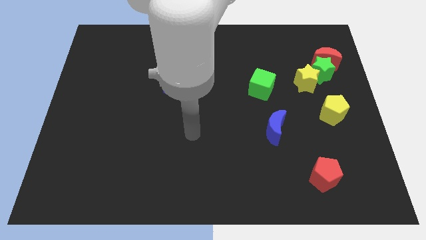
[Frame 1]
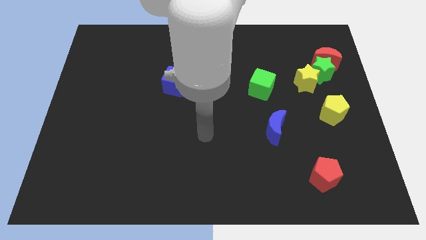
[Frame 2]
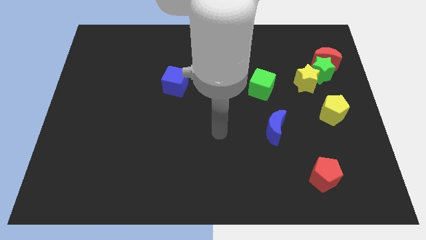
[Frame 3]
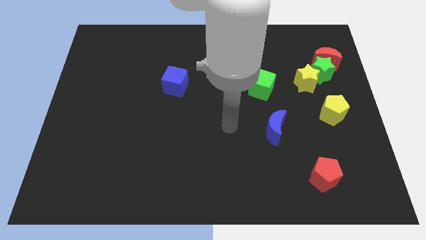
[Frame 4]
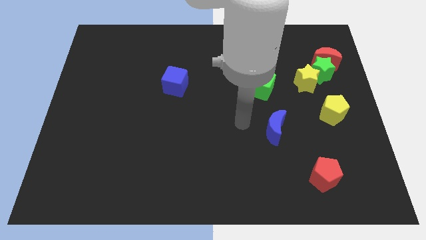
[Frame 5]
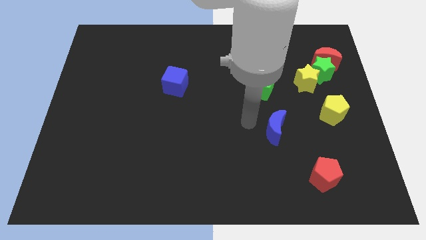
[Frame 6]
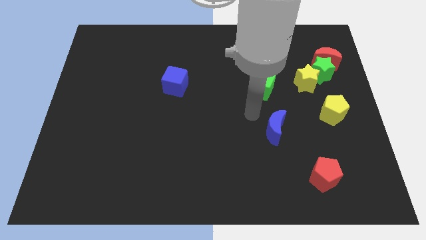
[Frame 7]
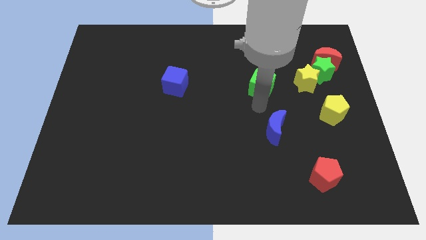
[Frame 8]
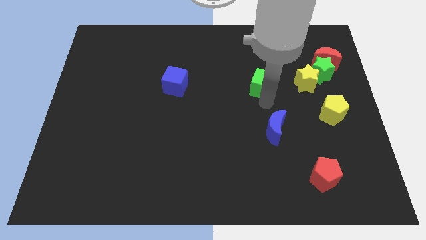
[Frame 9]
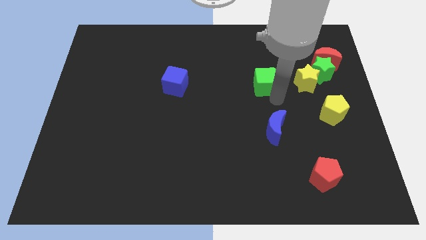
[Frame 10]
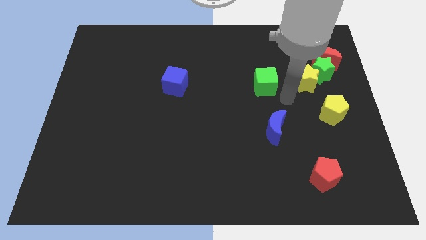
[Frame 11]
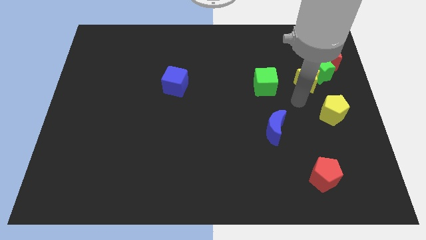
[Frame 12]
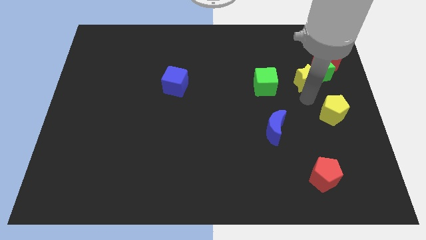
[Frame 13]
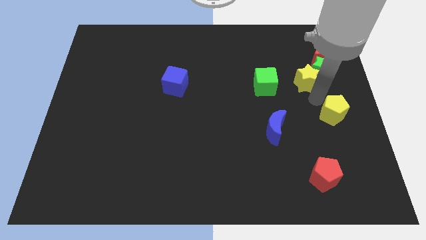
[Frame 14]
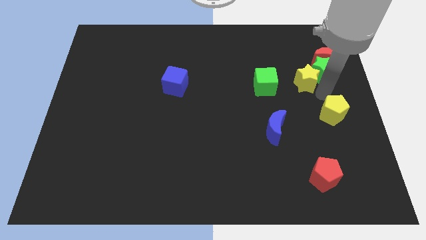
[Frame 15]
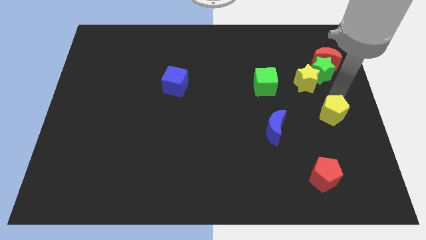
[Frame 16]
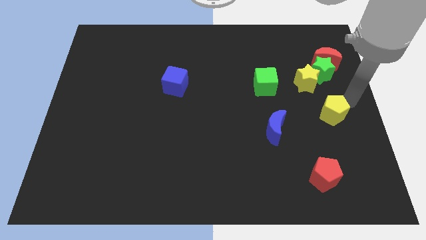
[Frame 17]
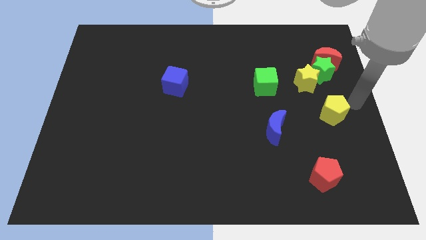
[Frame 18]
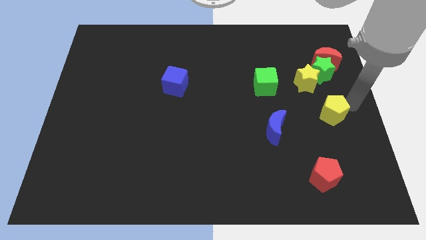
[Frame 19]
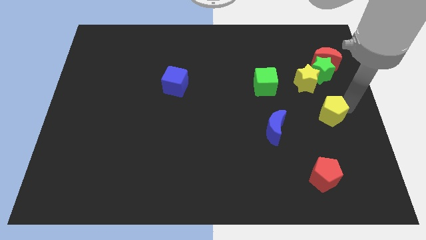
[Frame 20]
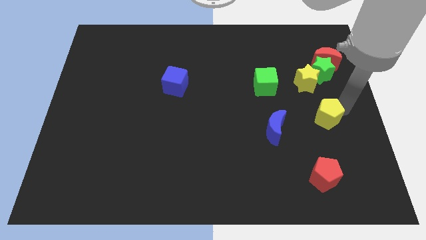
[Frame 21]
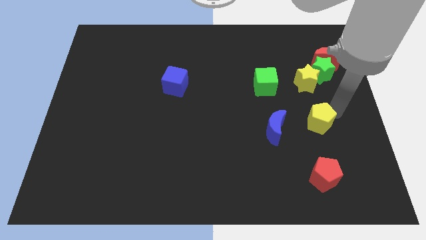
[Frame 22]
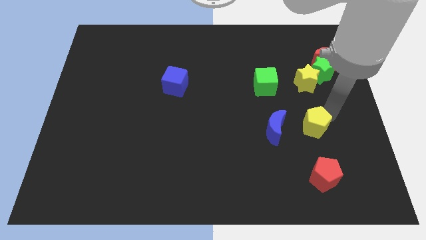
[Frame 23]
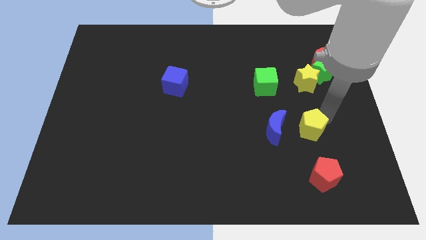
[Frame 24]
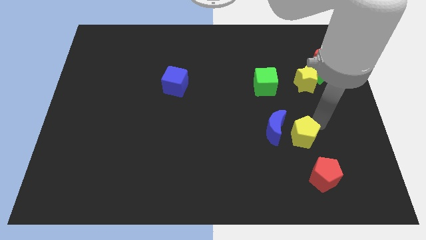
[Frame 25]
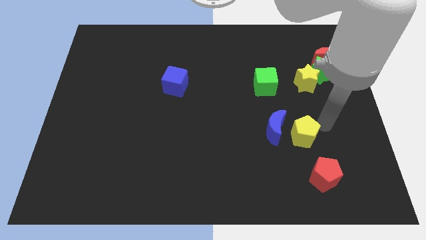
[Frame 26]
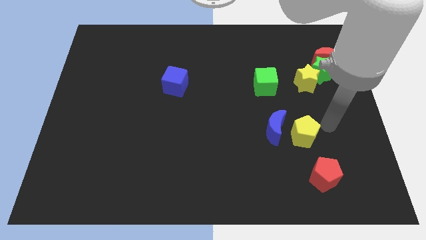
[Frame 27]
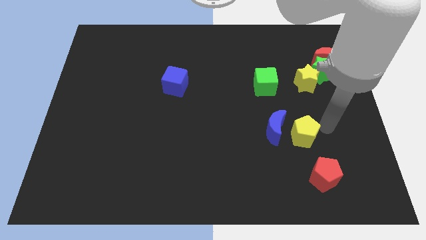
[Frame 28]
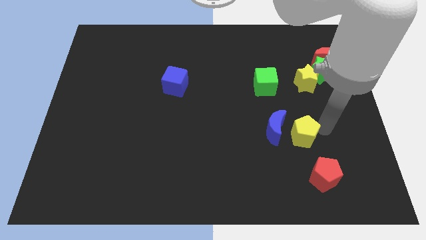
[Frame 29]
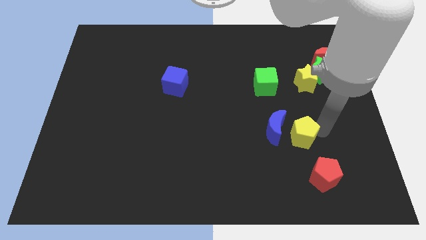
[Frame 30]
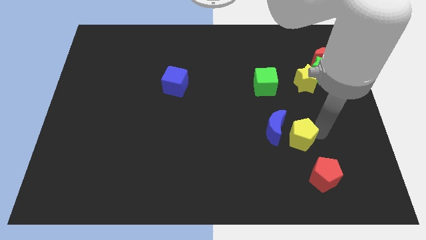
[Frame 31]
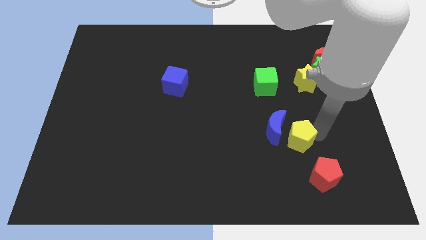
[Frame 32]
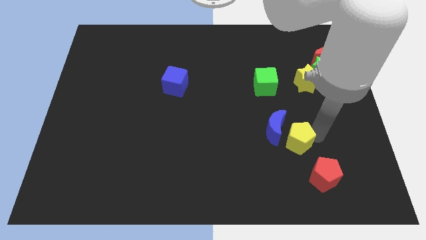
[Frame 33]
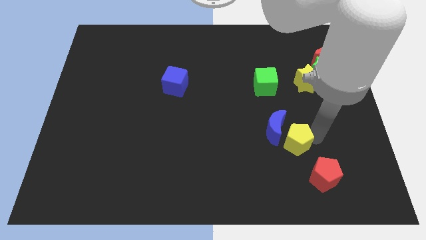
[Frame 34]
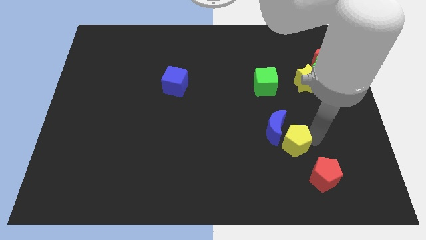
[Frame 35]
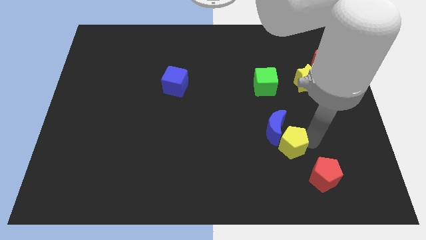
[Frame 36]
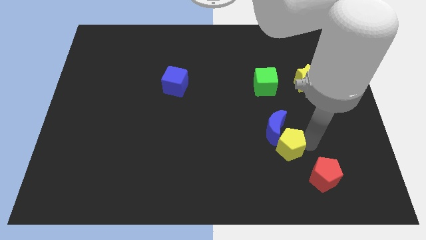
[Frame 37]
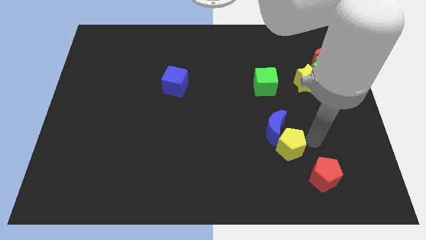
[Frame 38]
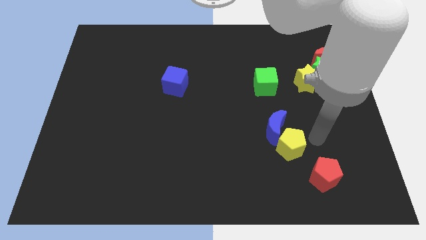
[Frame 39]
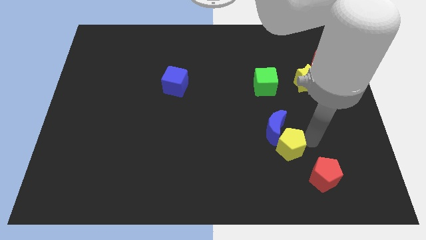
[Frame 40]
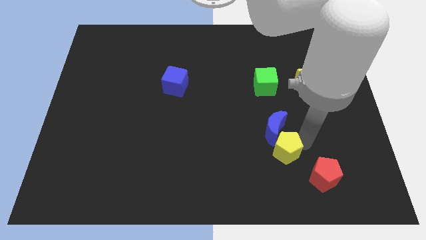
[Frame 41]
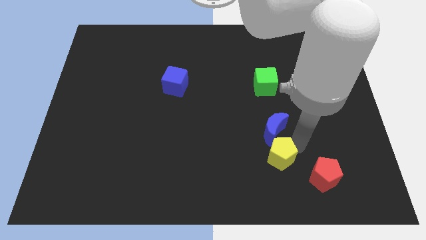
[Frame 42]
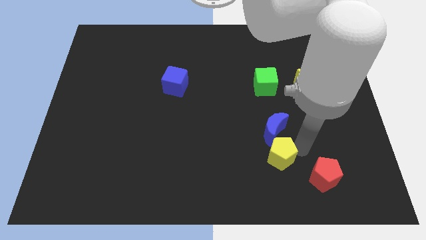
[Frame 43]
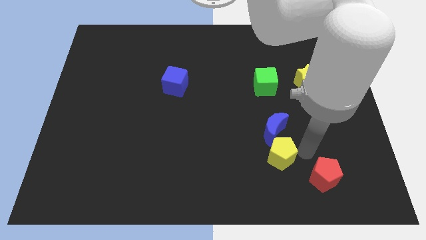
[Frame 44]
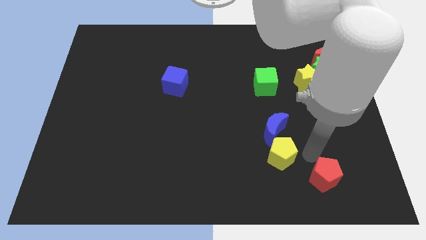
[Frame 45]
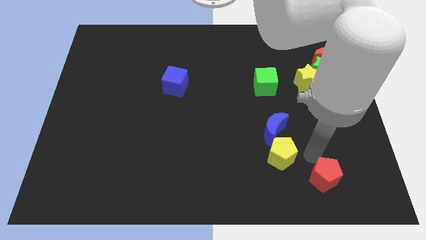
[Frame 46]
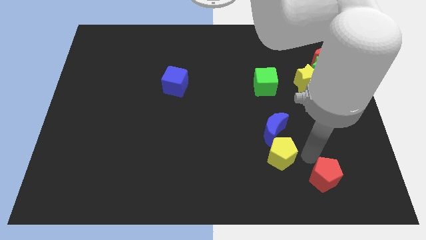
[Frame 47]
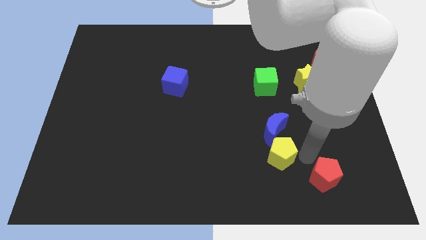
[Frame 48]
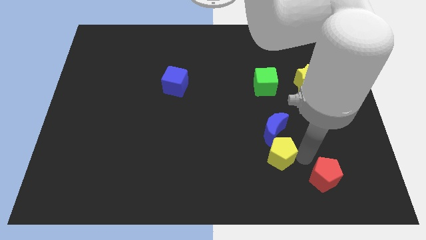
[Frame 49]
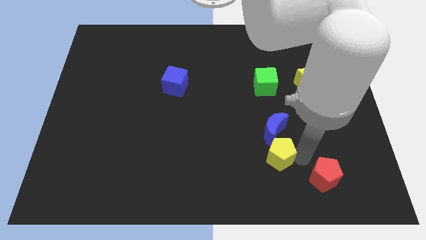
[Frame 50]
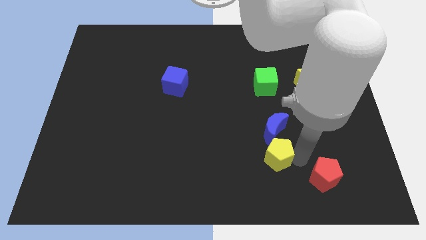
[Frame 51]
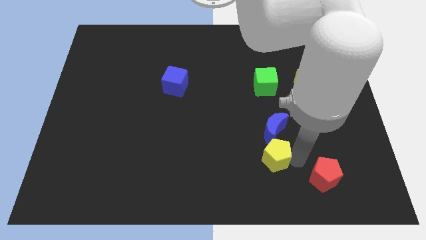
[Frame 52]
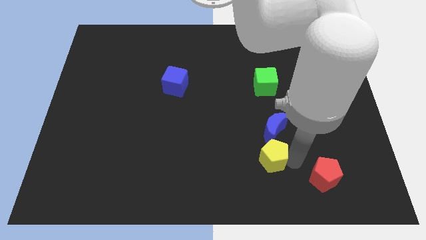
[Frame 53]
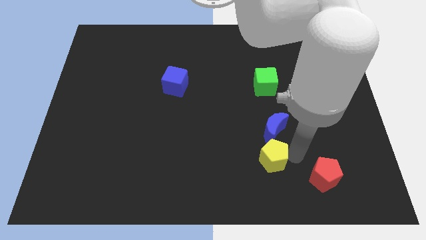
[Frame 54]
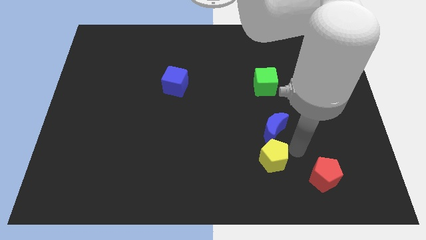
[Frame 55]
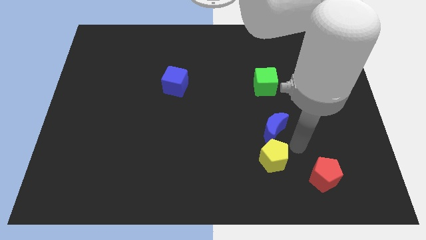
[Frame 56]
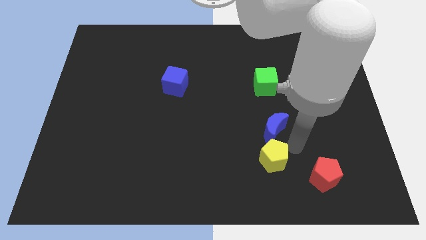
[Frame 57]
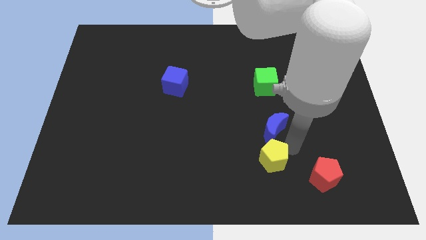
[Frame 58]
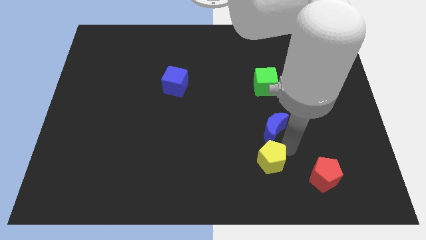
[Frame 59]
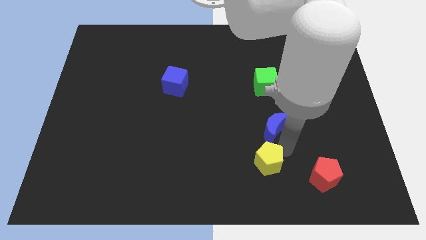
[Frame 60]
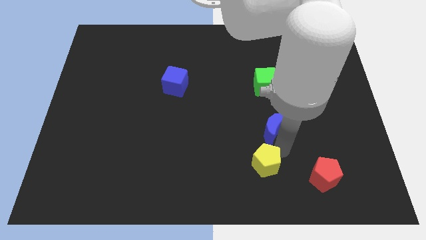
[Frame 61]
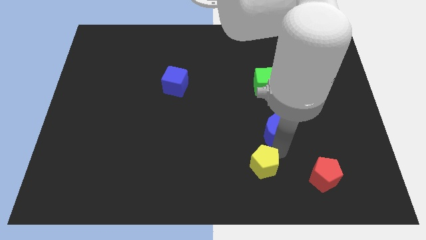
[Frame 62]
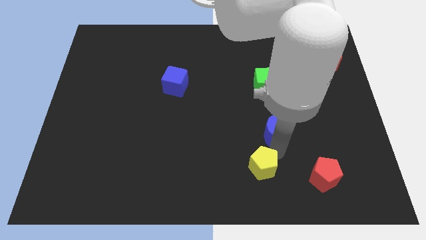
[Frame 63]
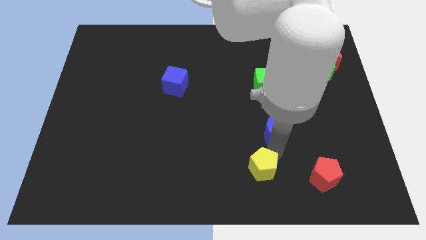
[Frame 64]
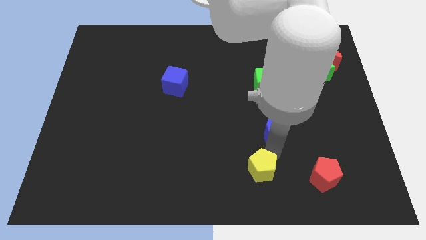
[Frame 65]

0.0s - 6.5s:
put the yellow pentagon to the bottom

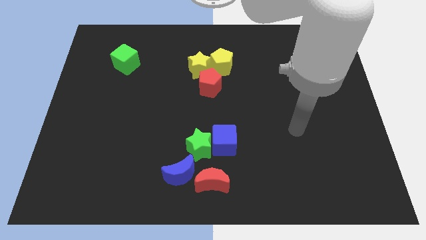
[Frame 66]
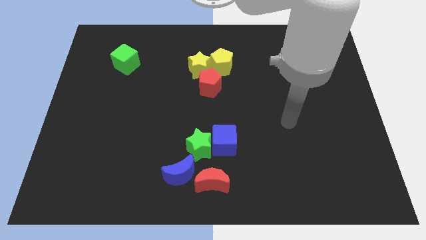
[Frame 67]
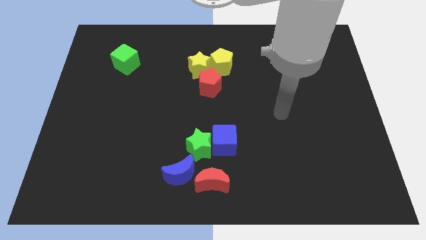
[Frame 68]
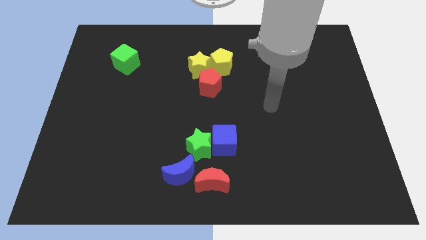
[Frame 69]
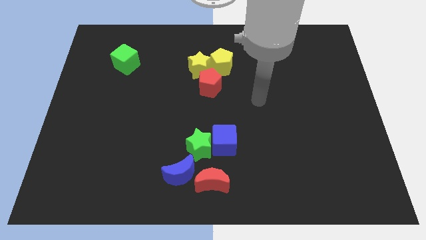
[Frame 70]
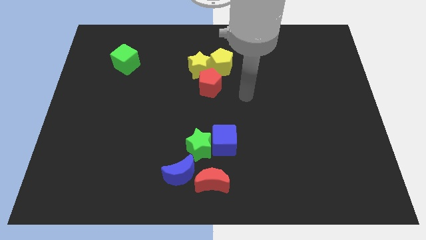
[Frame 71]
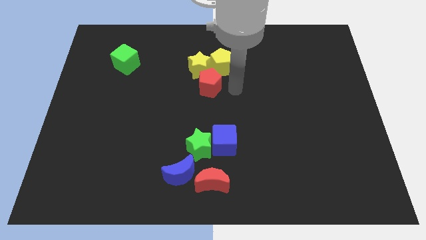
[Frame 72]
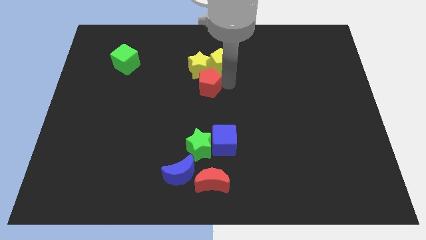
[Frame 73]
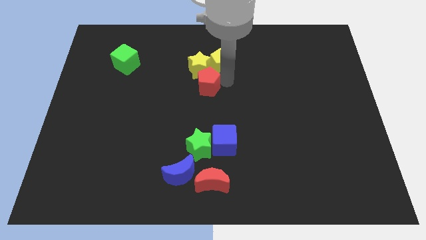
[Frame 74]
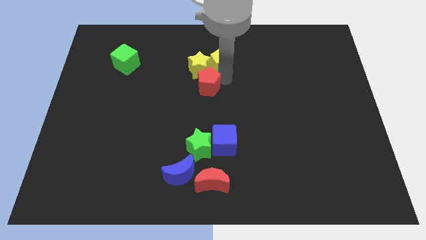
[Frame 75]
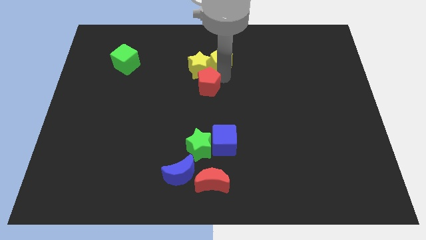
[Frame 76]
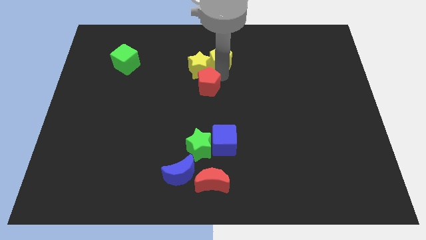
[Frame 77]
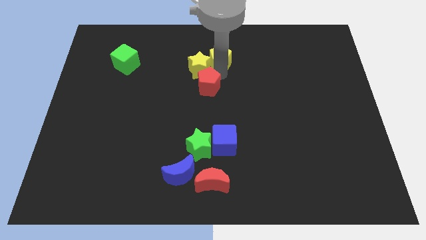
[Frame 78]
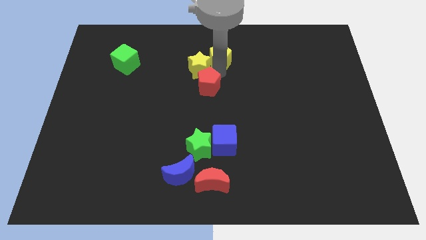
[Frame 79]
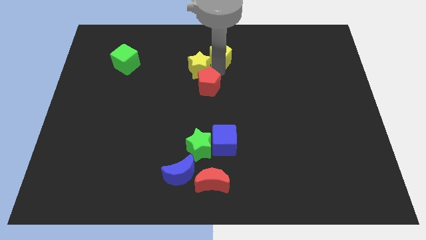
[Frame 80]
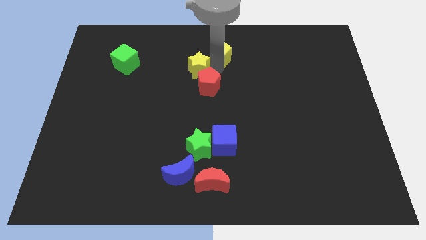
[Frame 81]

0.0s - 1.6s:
slide the yellow pentagon to the towards your base
